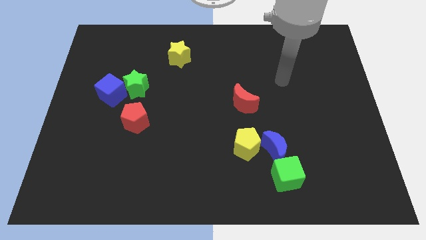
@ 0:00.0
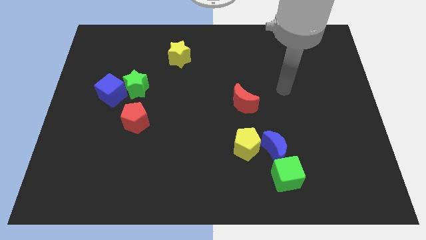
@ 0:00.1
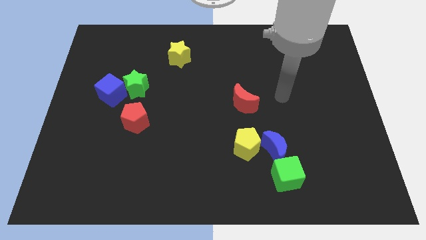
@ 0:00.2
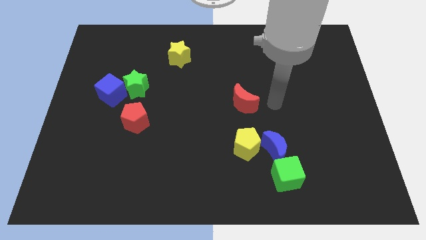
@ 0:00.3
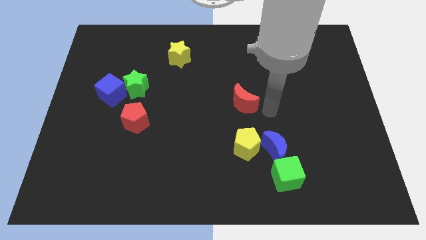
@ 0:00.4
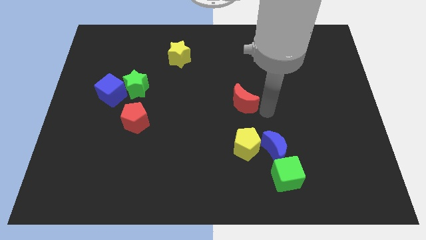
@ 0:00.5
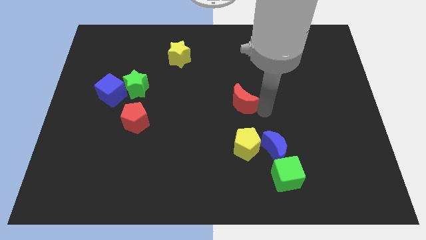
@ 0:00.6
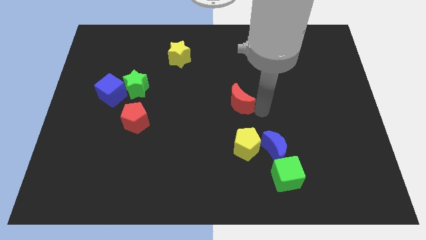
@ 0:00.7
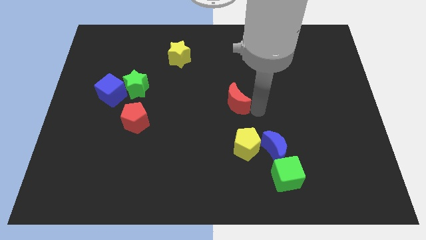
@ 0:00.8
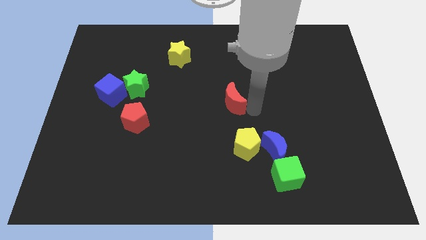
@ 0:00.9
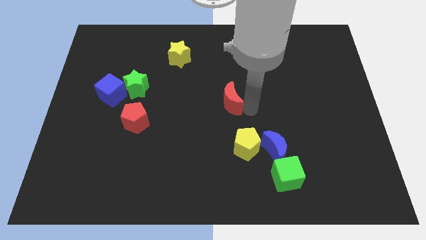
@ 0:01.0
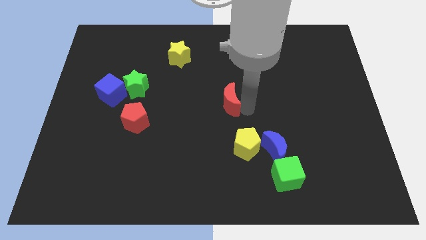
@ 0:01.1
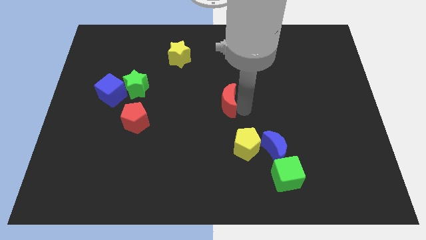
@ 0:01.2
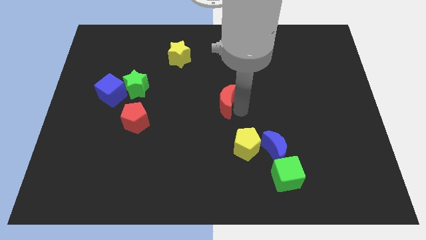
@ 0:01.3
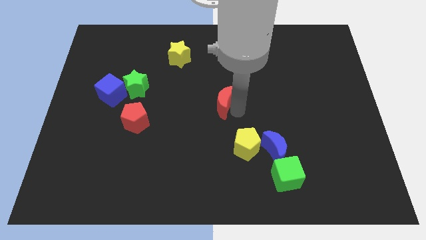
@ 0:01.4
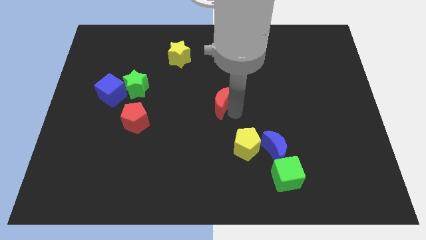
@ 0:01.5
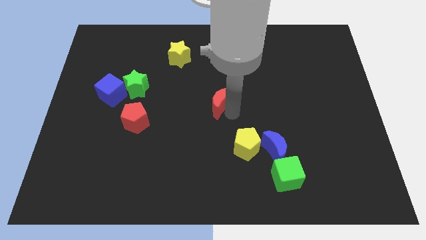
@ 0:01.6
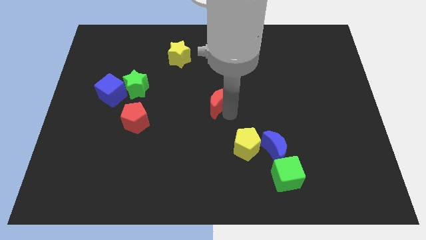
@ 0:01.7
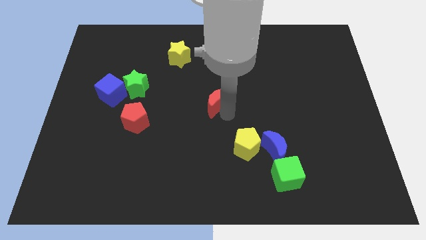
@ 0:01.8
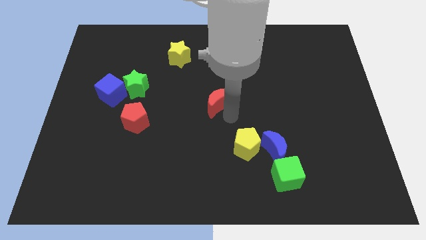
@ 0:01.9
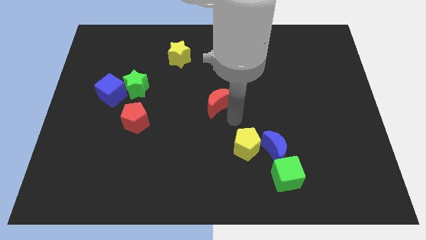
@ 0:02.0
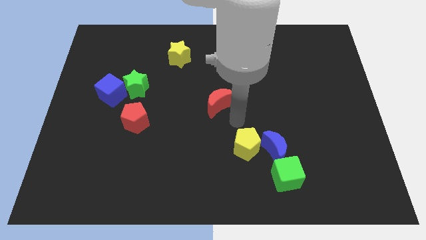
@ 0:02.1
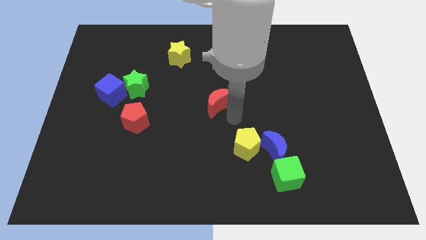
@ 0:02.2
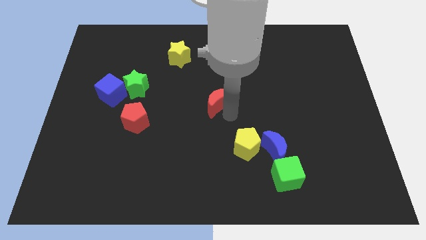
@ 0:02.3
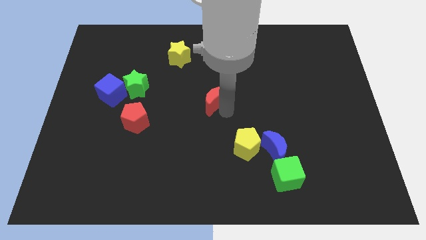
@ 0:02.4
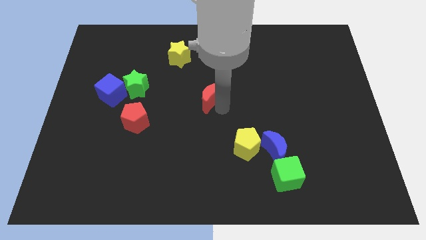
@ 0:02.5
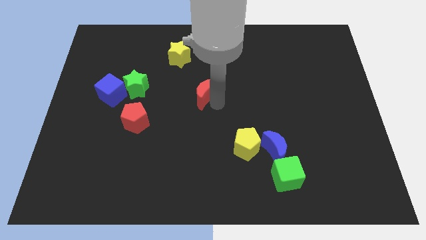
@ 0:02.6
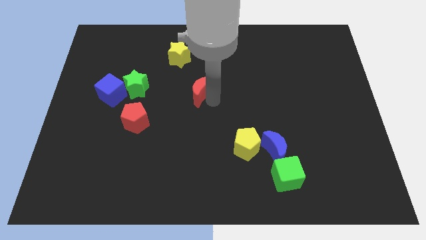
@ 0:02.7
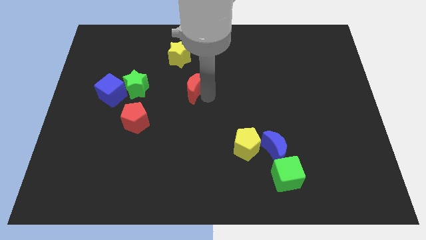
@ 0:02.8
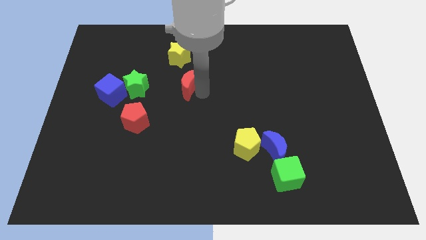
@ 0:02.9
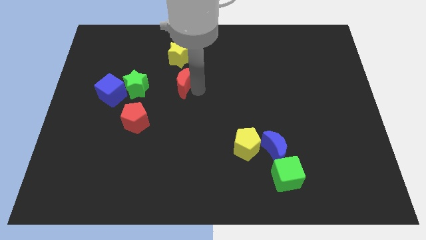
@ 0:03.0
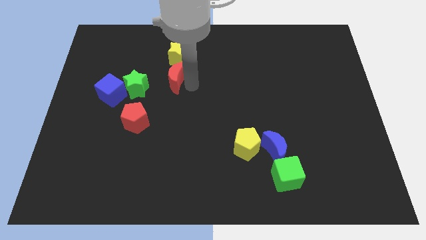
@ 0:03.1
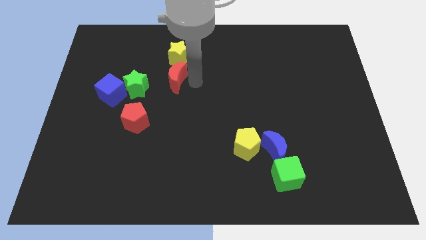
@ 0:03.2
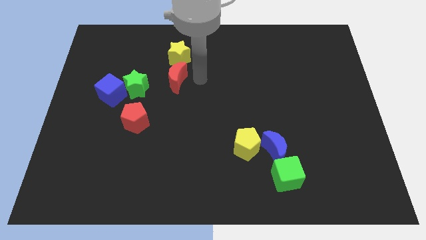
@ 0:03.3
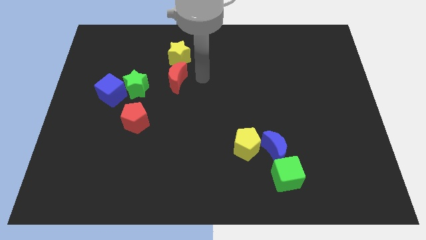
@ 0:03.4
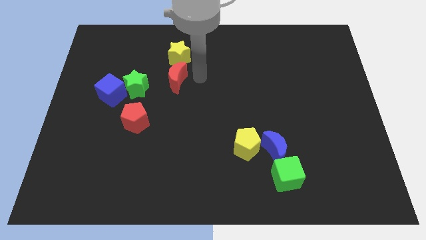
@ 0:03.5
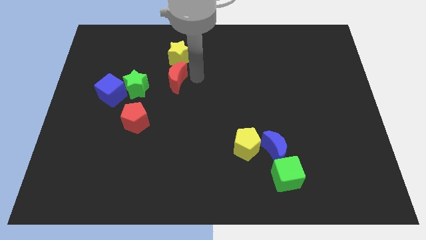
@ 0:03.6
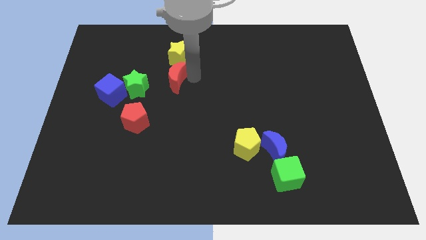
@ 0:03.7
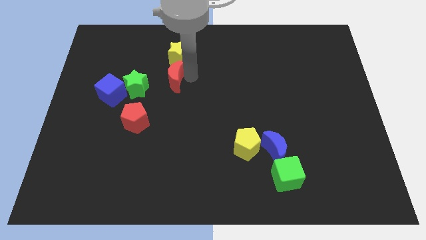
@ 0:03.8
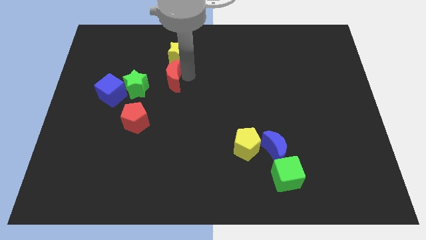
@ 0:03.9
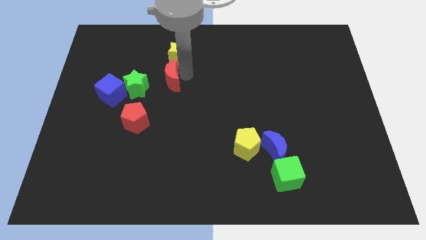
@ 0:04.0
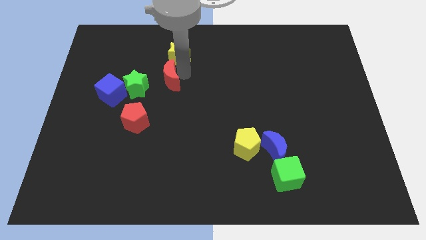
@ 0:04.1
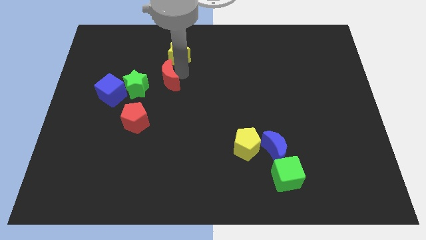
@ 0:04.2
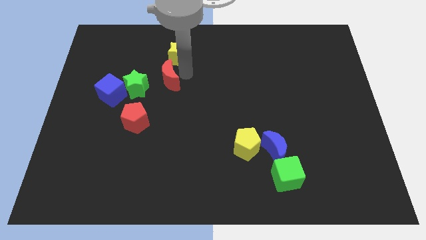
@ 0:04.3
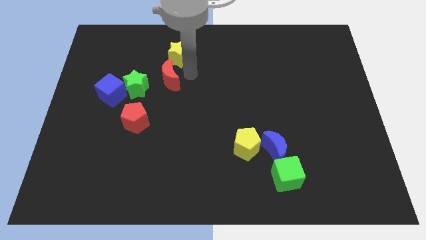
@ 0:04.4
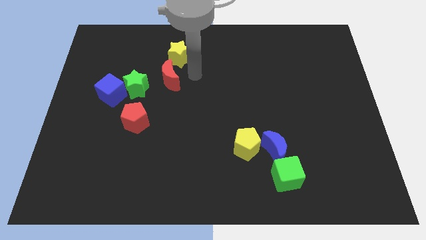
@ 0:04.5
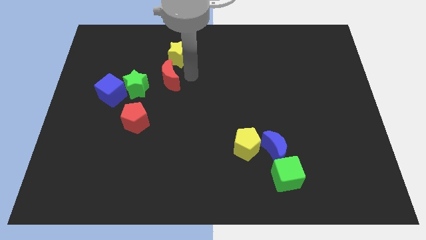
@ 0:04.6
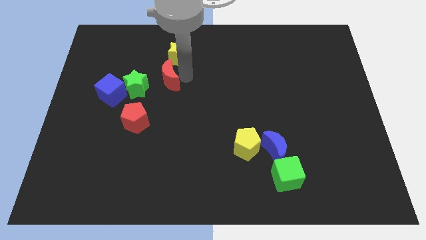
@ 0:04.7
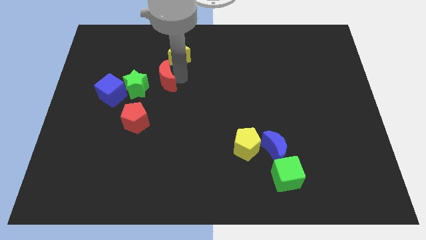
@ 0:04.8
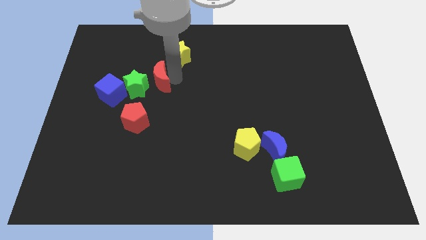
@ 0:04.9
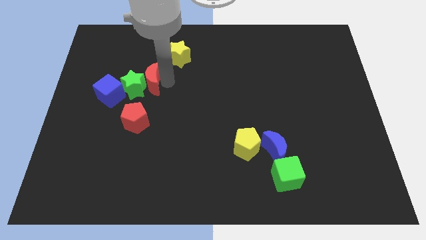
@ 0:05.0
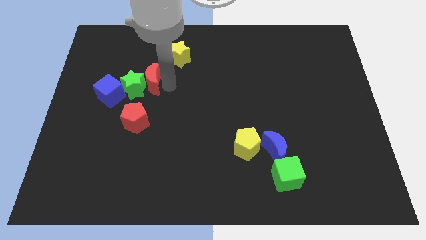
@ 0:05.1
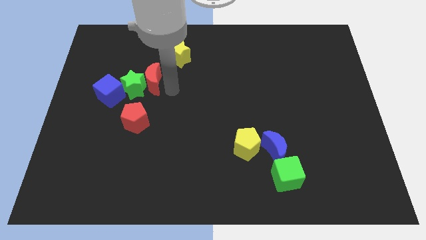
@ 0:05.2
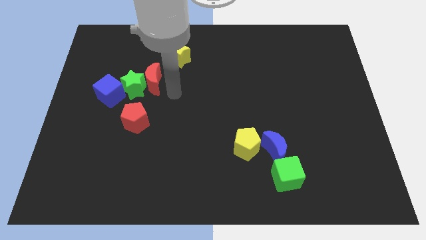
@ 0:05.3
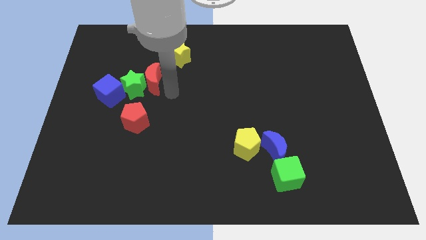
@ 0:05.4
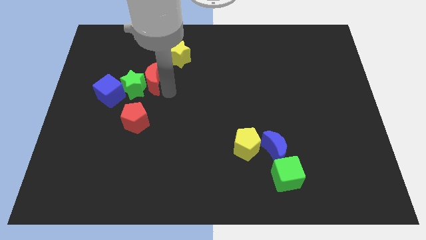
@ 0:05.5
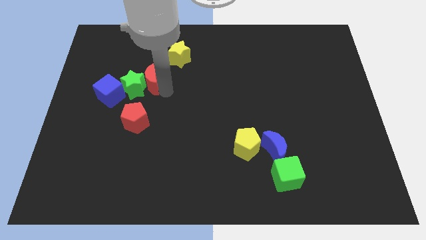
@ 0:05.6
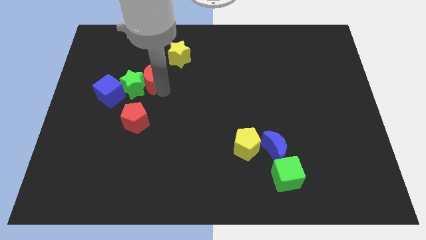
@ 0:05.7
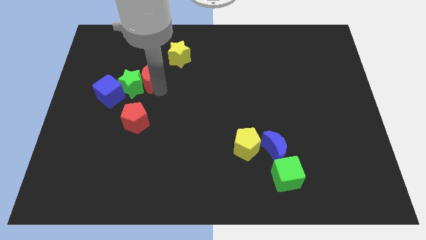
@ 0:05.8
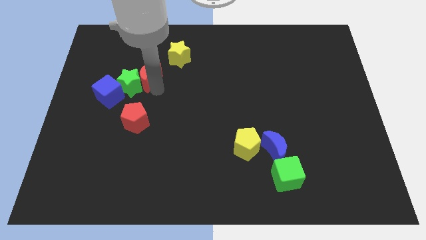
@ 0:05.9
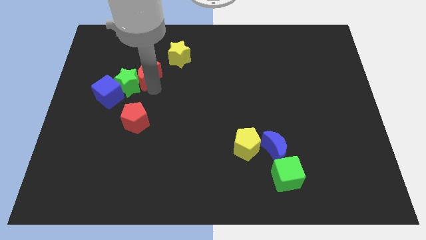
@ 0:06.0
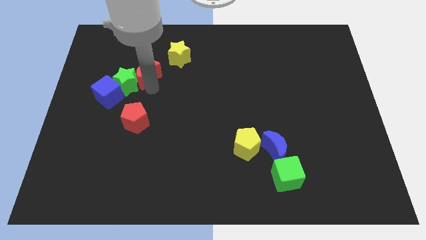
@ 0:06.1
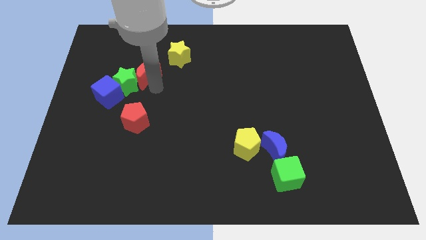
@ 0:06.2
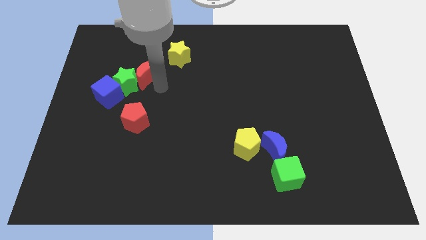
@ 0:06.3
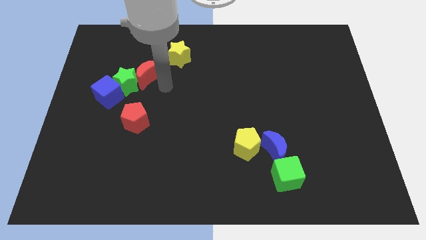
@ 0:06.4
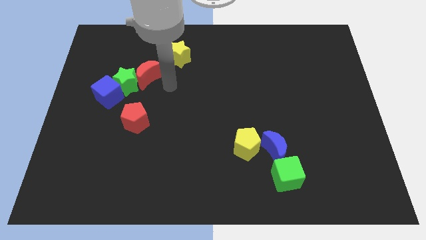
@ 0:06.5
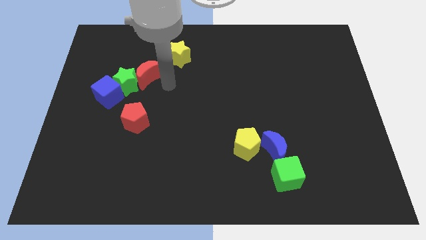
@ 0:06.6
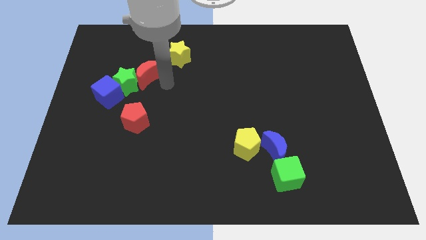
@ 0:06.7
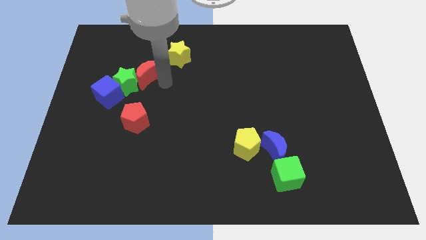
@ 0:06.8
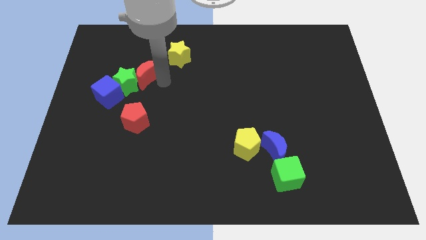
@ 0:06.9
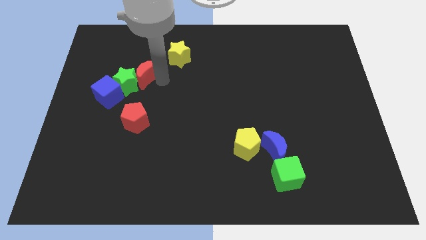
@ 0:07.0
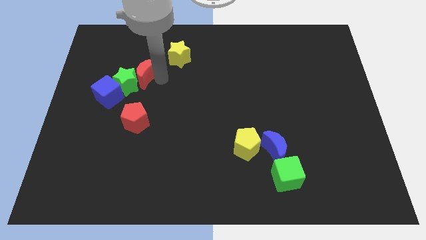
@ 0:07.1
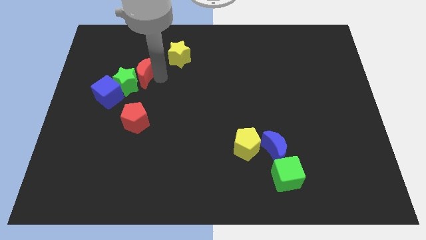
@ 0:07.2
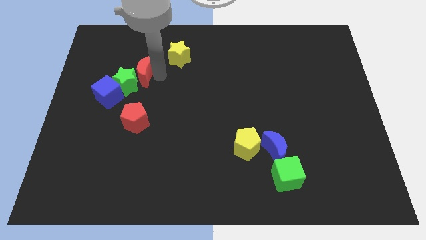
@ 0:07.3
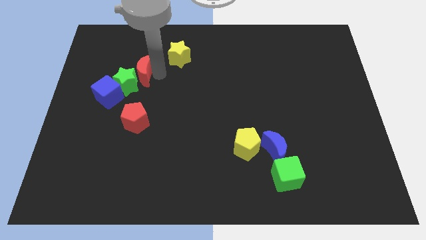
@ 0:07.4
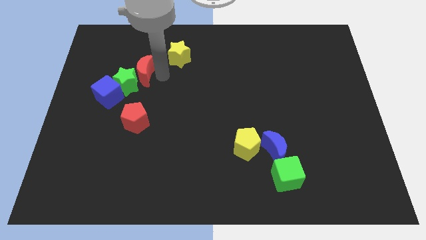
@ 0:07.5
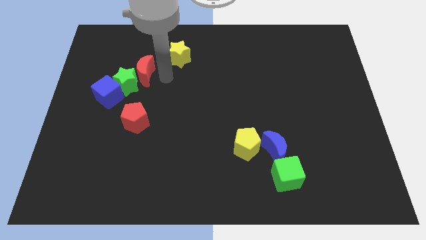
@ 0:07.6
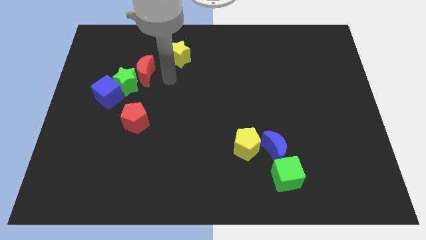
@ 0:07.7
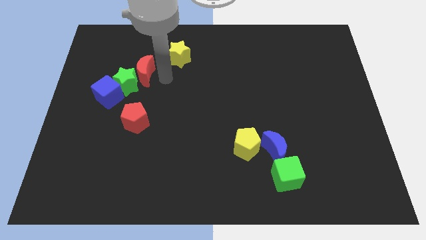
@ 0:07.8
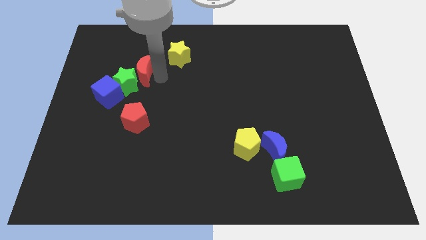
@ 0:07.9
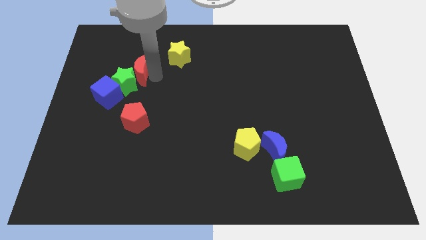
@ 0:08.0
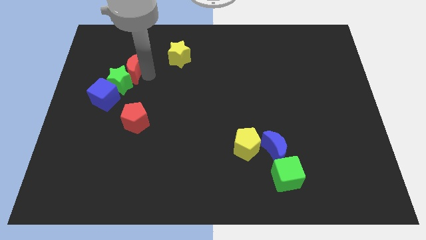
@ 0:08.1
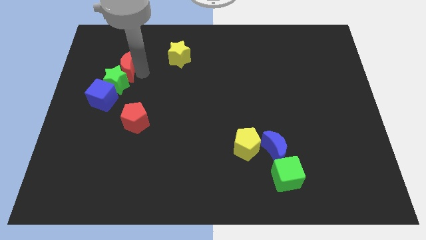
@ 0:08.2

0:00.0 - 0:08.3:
push the red moon above the blue cube
